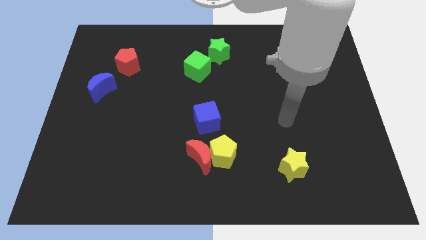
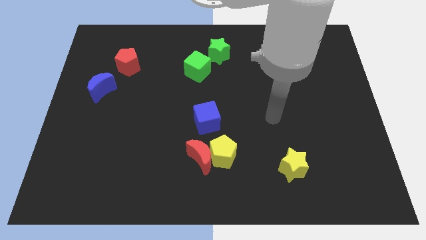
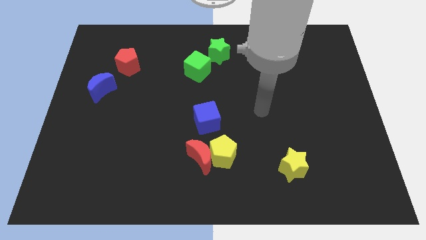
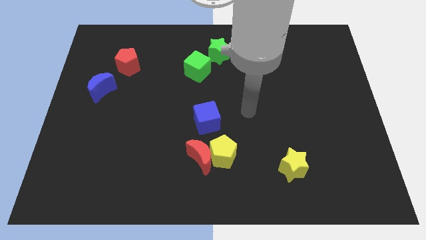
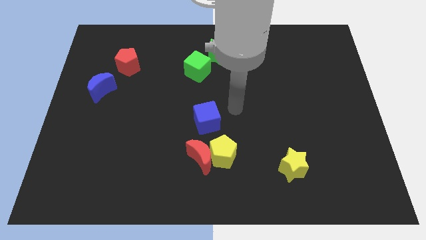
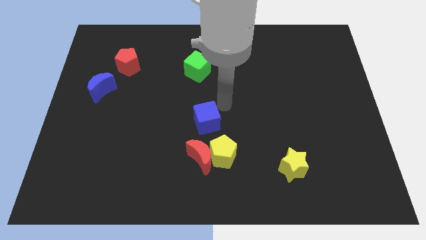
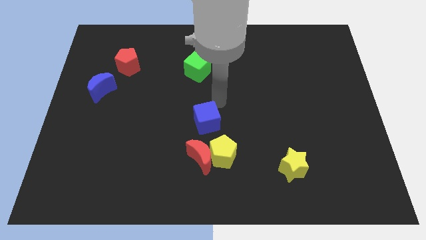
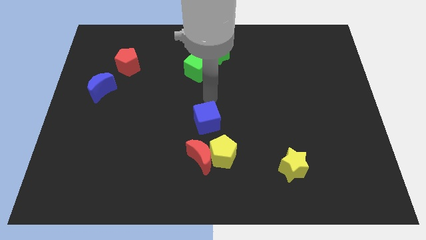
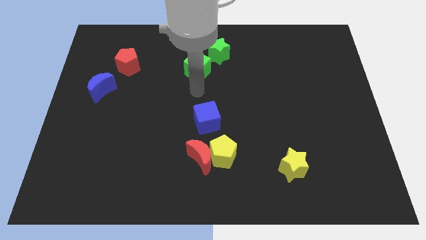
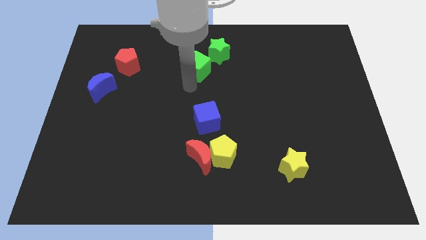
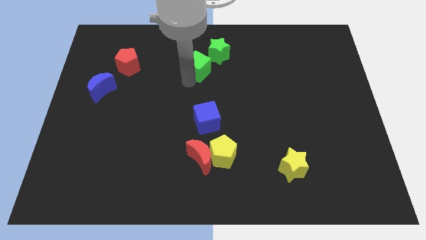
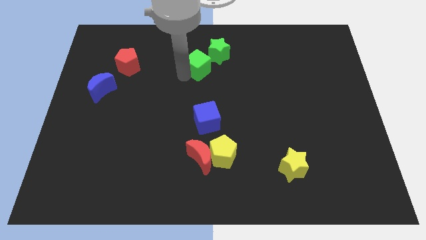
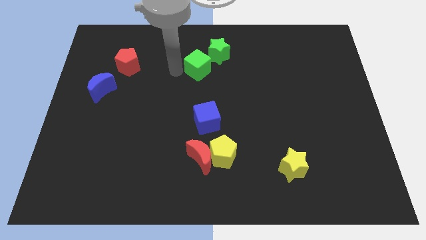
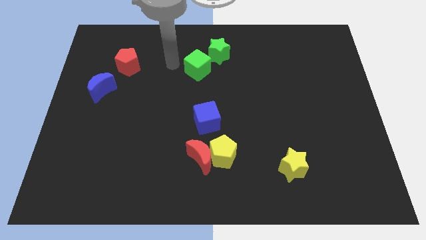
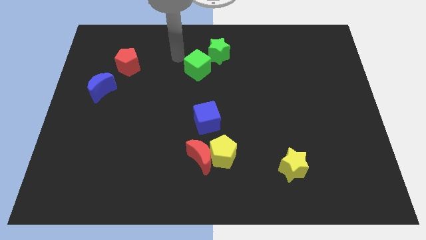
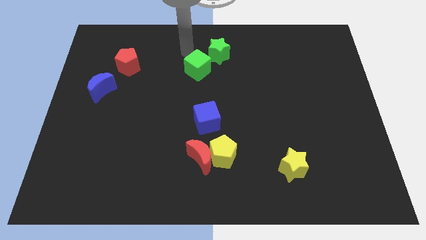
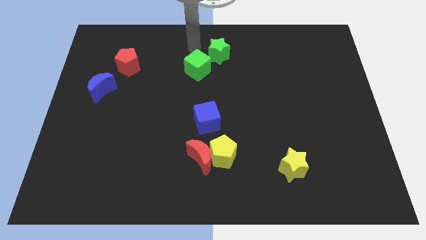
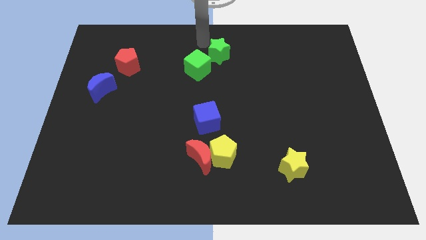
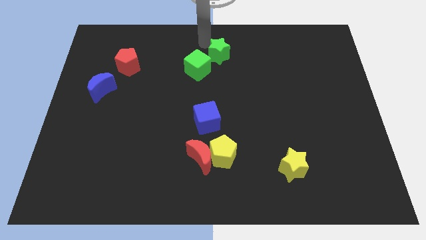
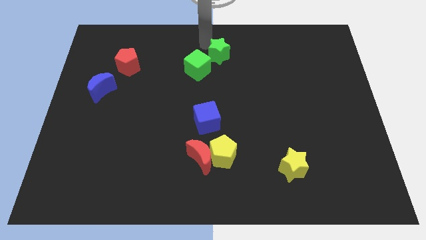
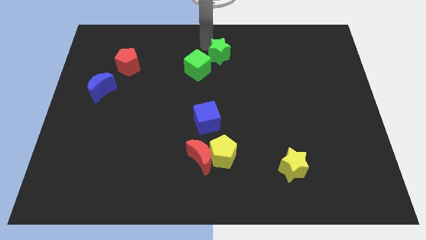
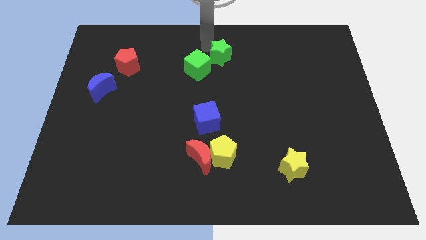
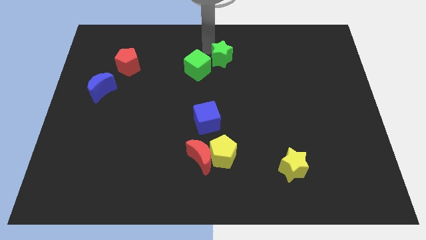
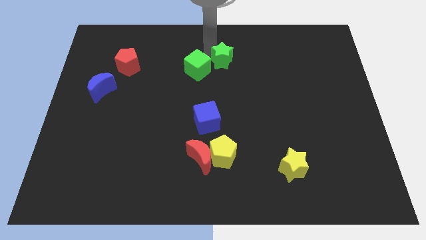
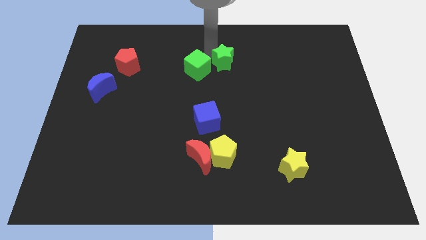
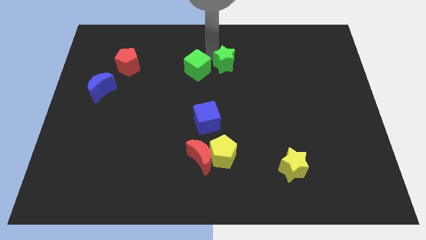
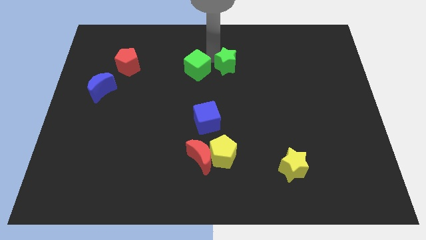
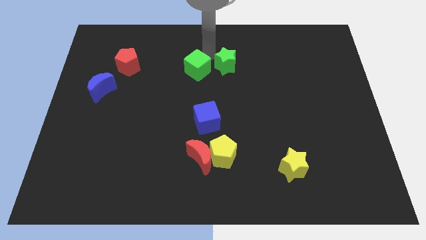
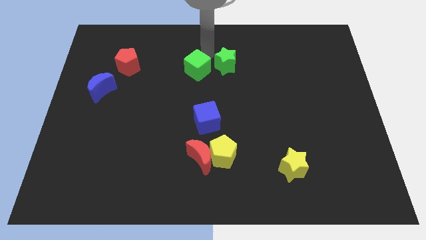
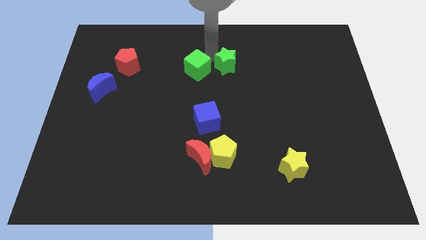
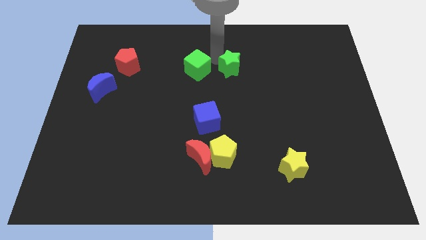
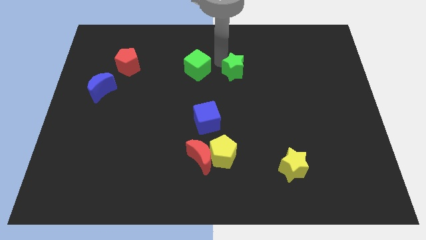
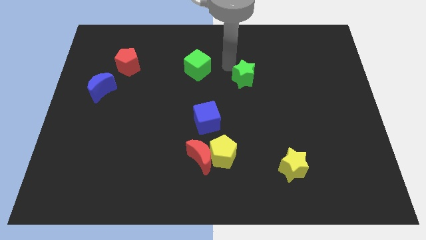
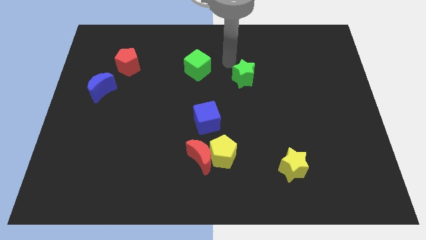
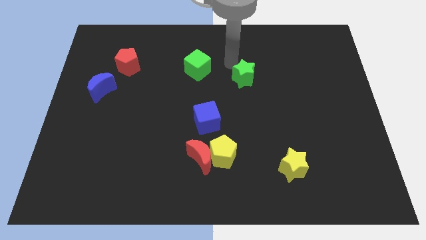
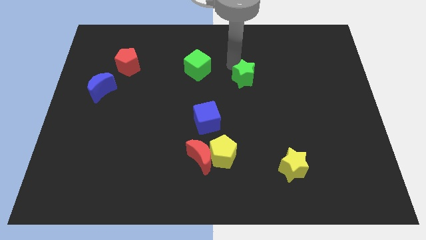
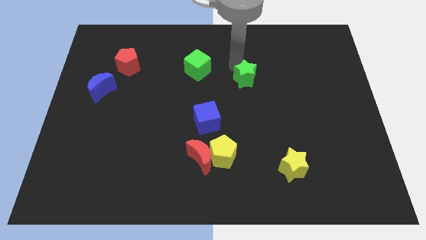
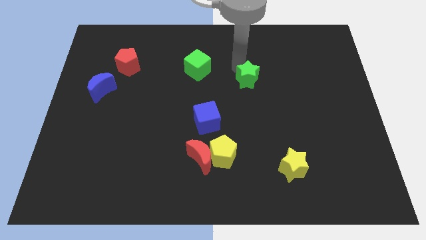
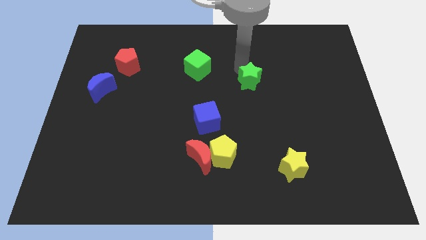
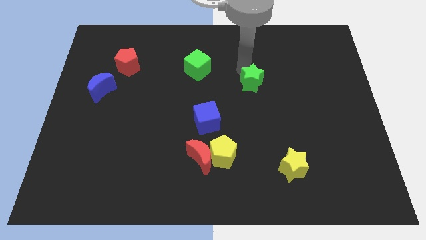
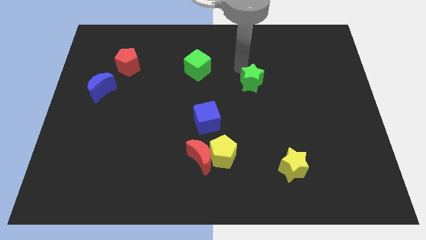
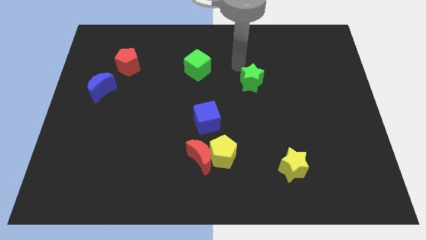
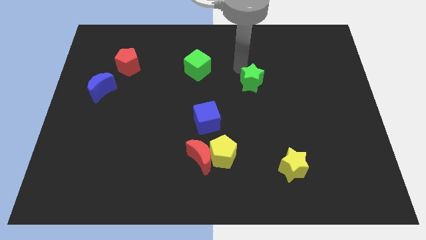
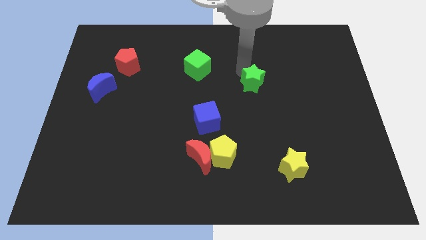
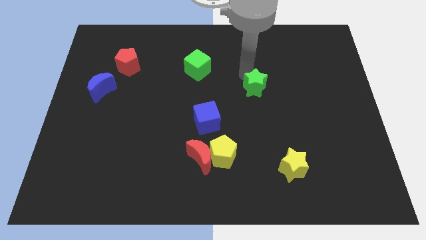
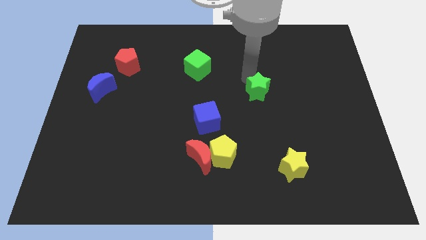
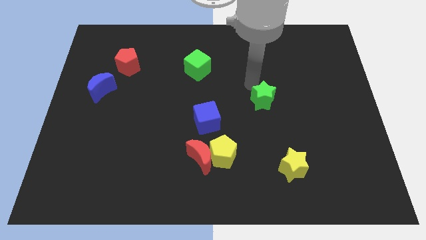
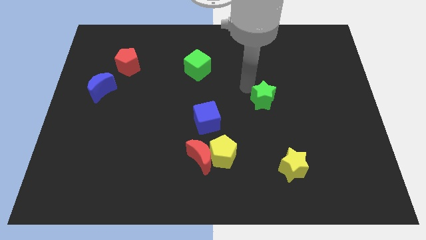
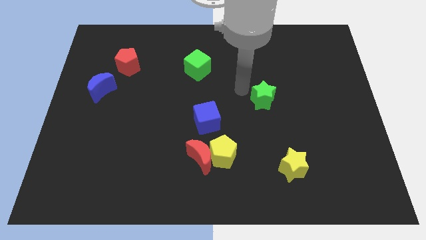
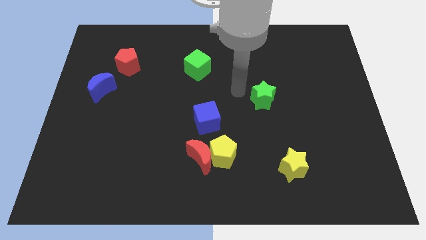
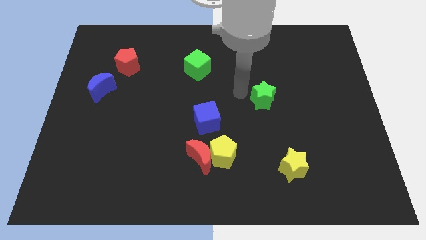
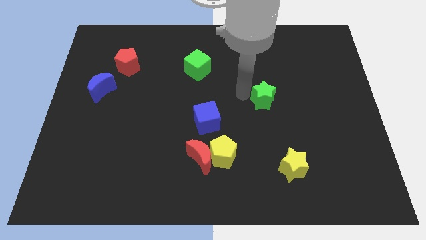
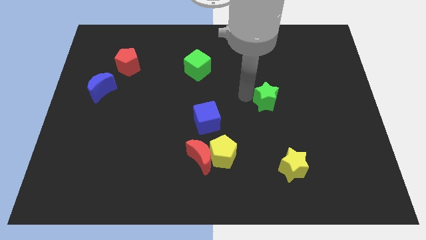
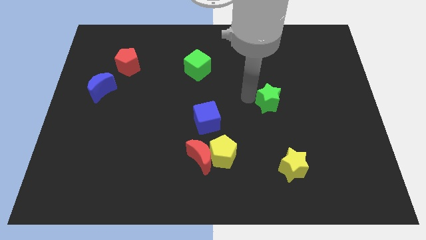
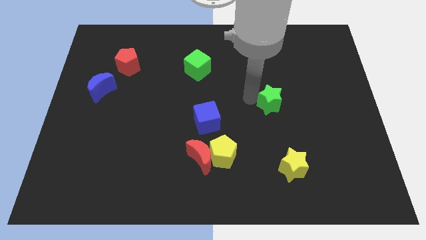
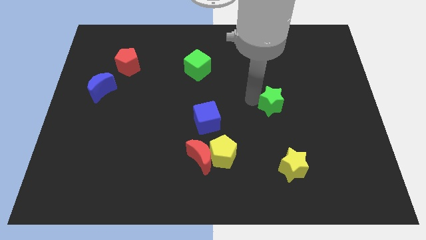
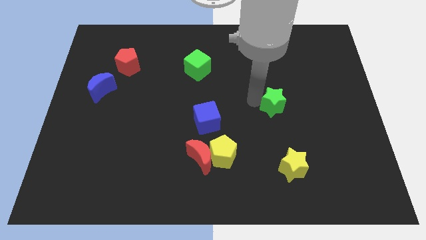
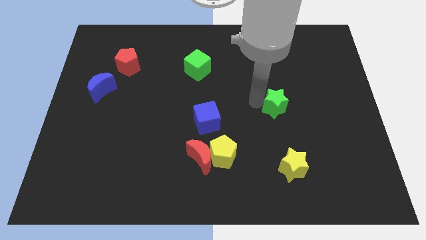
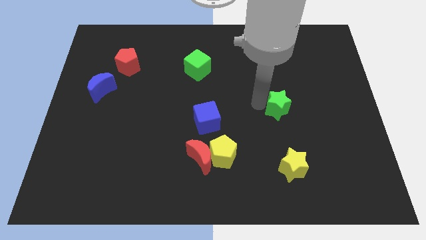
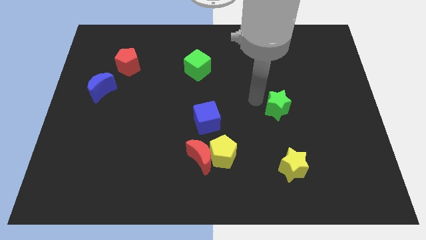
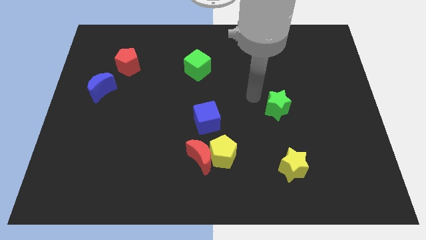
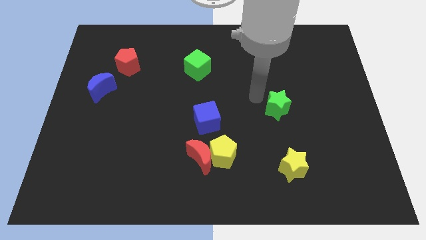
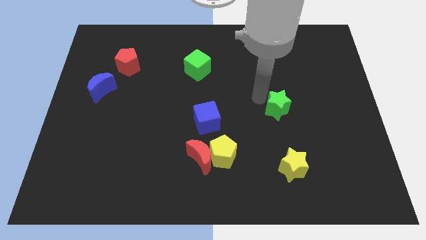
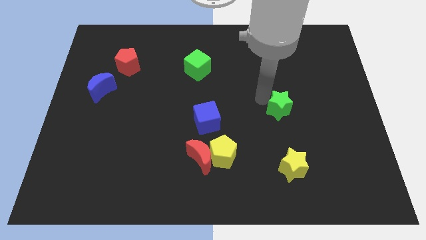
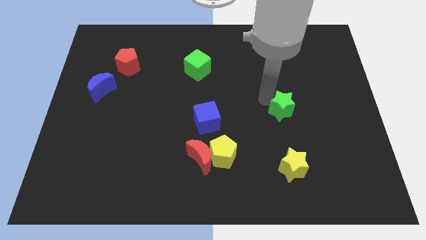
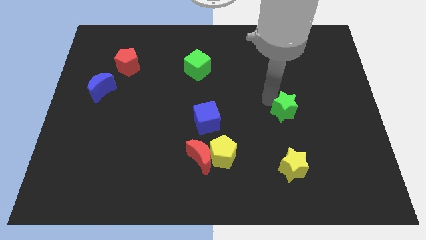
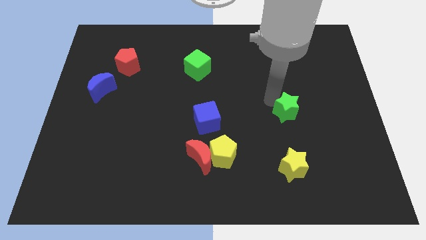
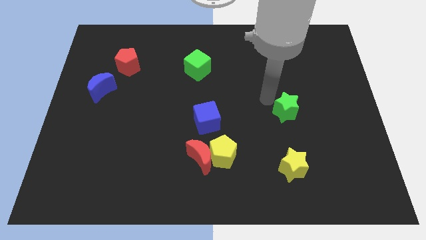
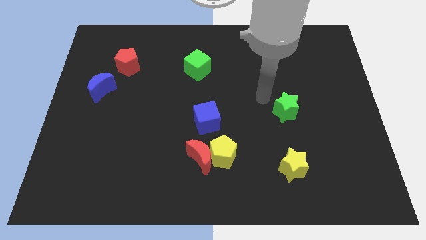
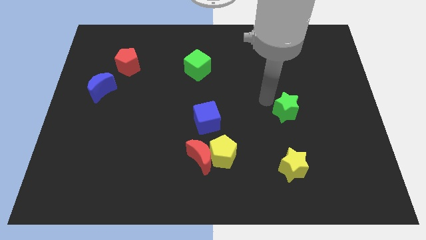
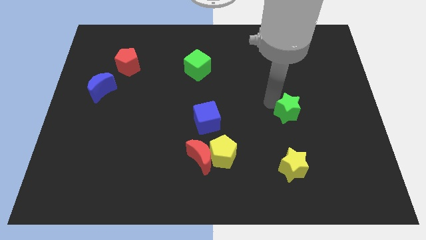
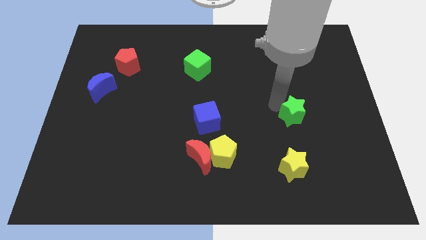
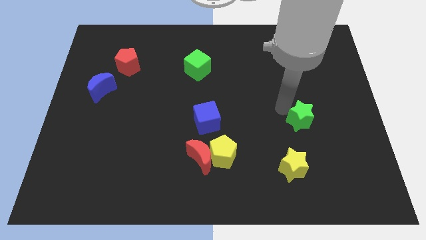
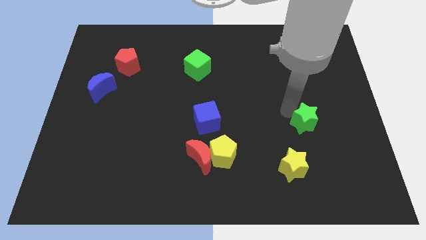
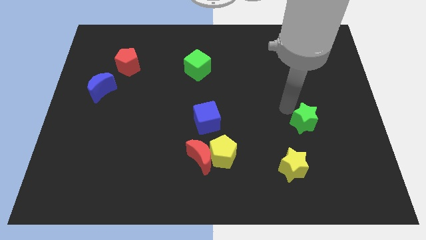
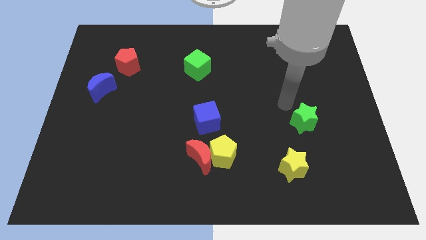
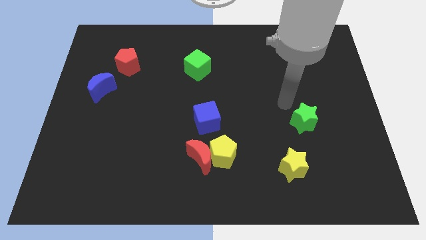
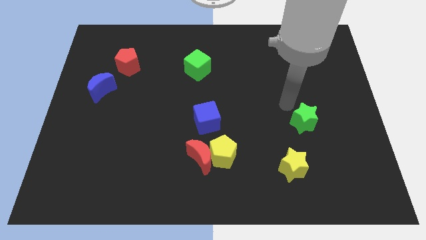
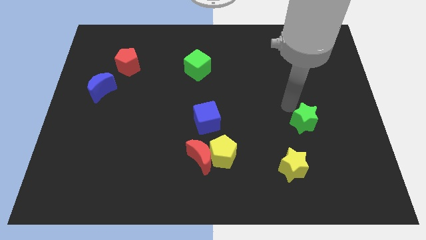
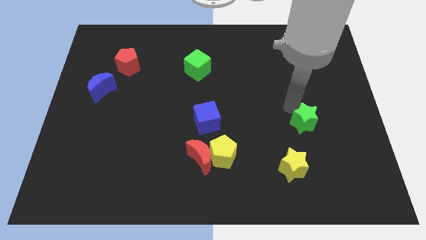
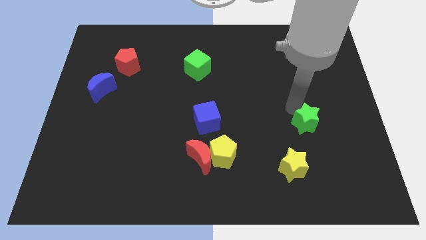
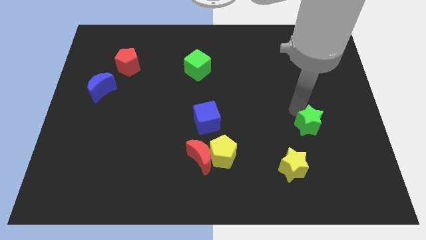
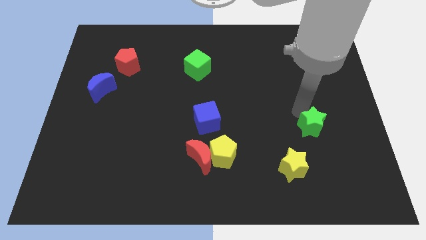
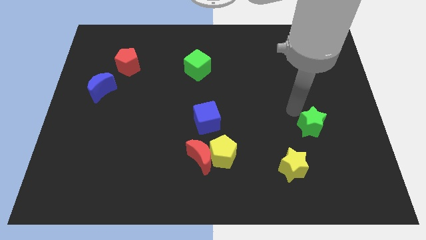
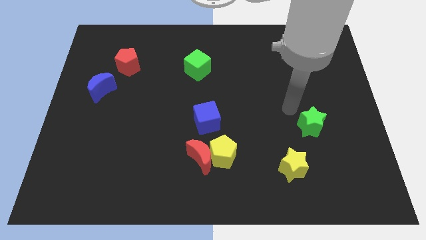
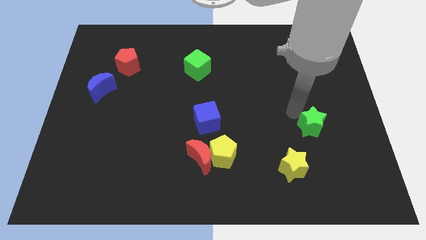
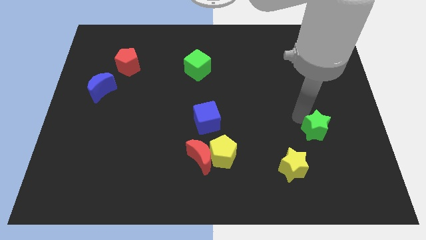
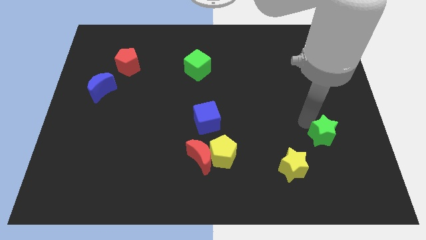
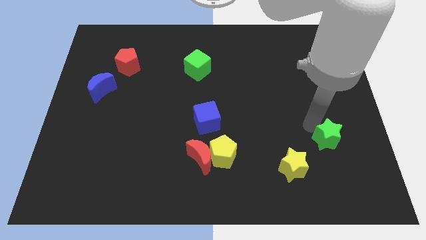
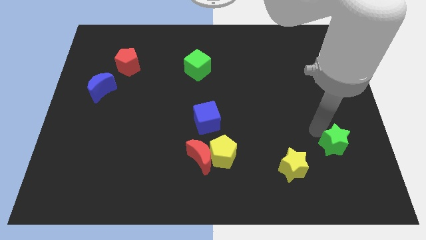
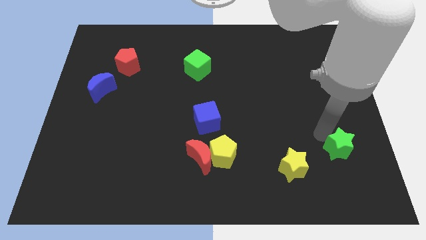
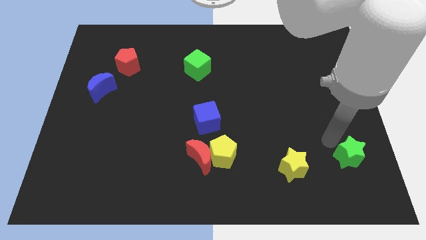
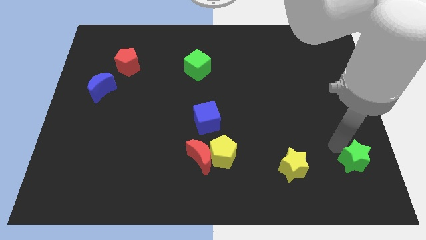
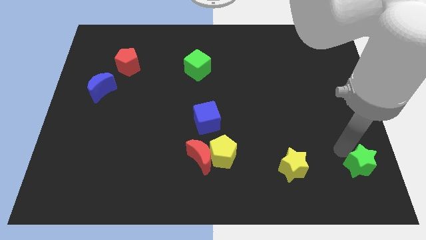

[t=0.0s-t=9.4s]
move the green star to the bottom right corner
